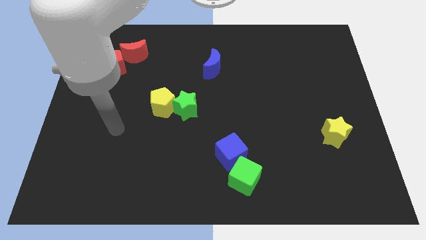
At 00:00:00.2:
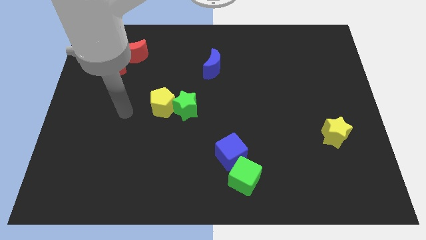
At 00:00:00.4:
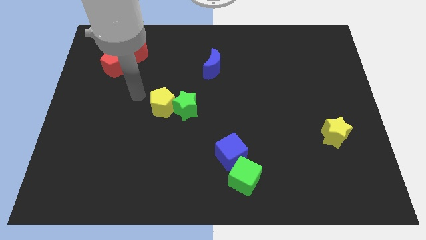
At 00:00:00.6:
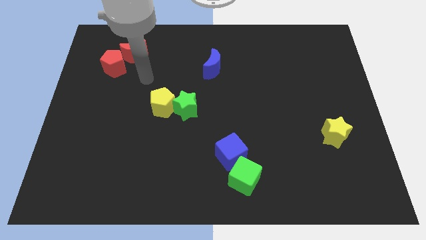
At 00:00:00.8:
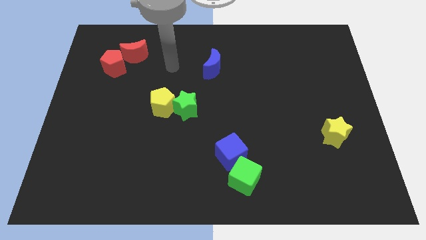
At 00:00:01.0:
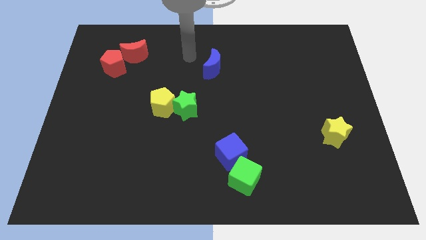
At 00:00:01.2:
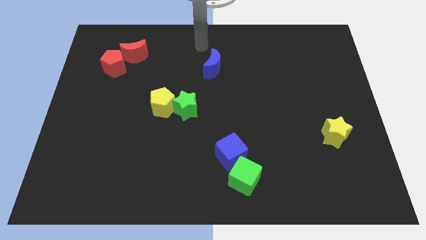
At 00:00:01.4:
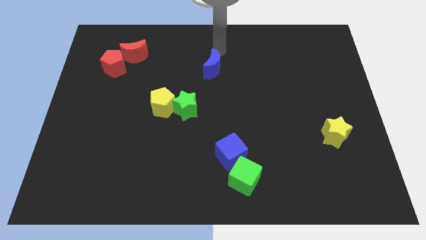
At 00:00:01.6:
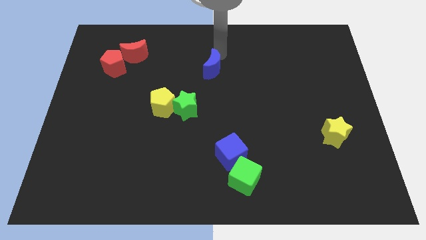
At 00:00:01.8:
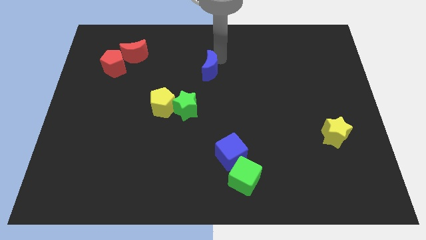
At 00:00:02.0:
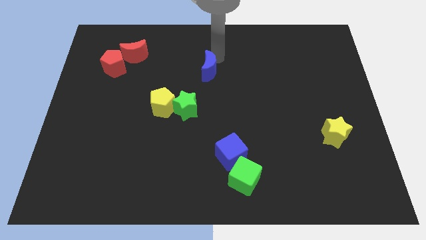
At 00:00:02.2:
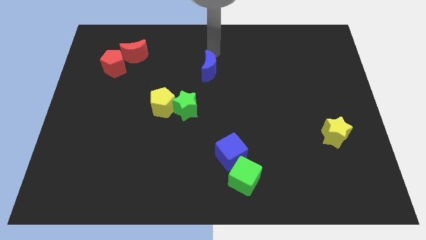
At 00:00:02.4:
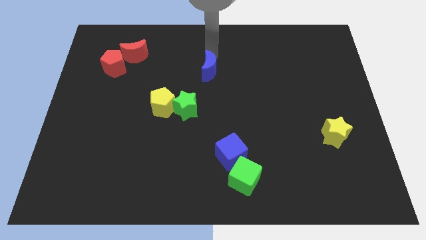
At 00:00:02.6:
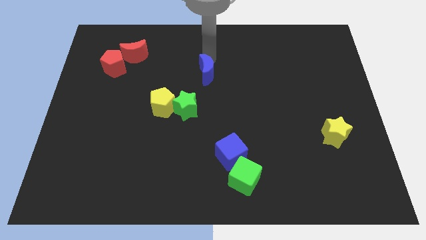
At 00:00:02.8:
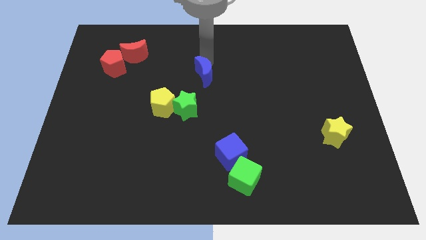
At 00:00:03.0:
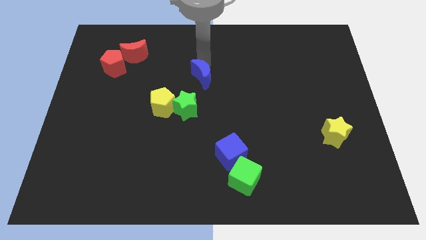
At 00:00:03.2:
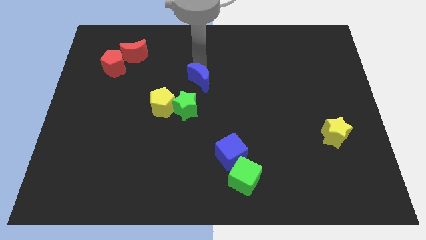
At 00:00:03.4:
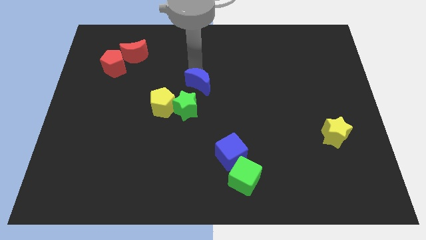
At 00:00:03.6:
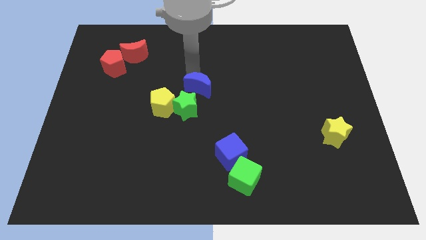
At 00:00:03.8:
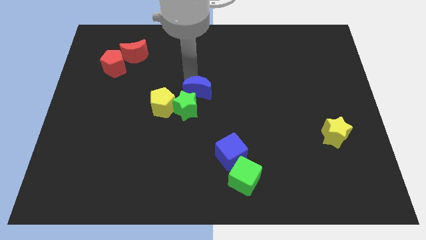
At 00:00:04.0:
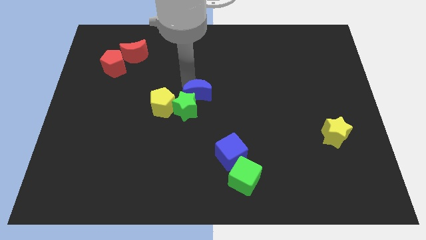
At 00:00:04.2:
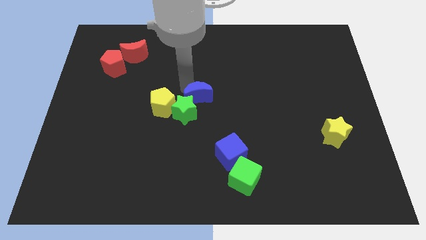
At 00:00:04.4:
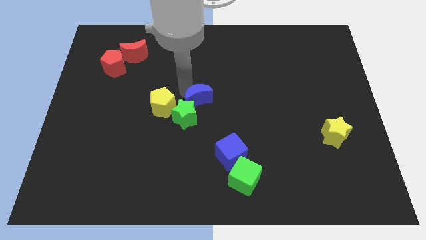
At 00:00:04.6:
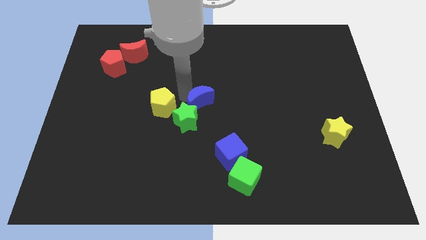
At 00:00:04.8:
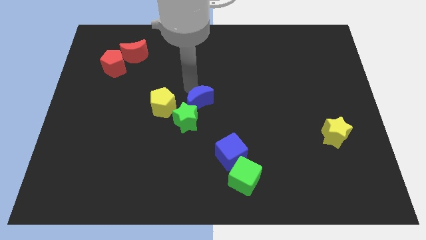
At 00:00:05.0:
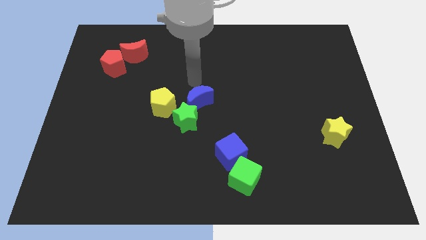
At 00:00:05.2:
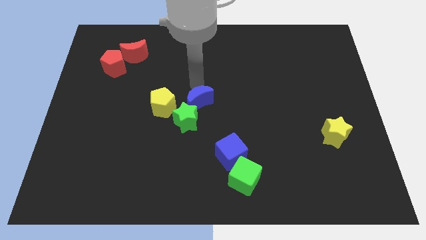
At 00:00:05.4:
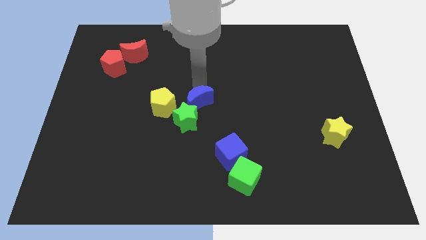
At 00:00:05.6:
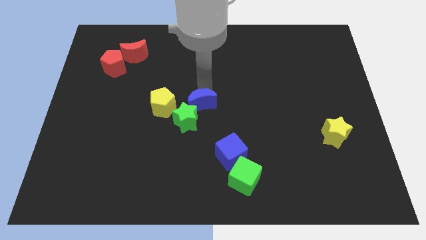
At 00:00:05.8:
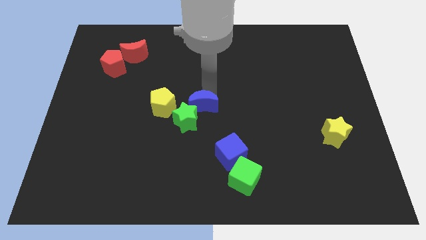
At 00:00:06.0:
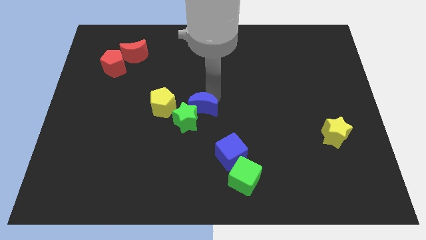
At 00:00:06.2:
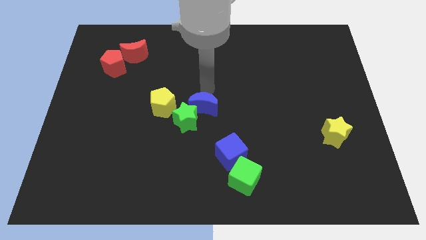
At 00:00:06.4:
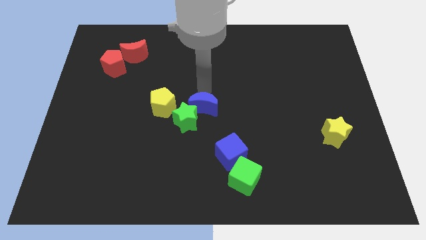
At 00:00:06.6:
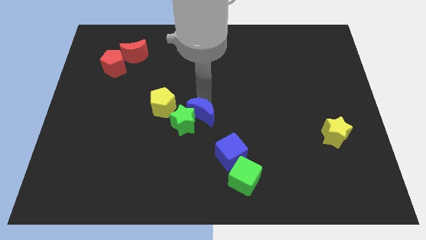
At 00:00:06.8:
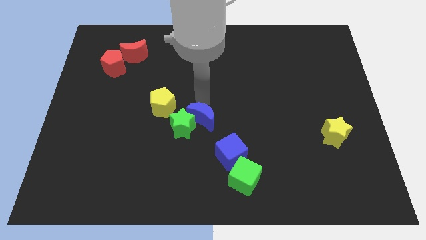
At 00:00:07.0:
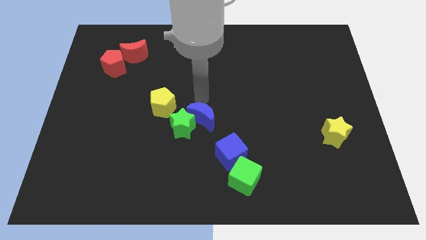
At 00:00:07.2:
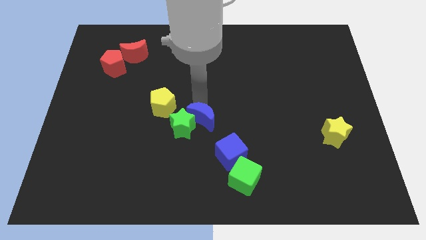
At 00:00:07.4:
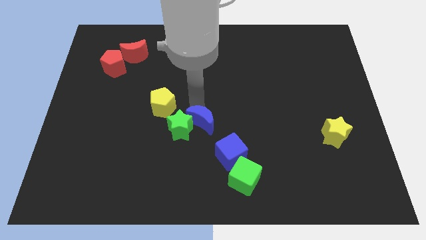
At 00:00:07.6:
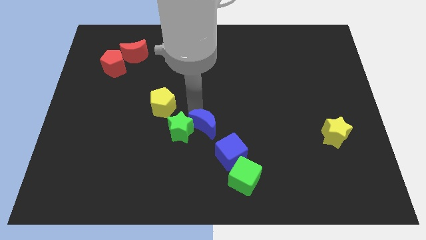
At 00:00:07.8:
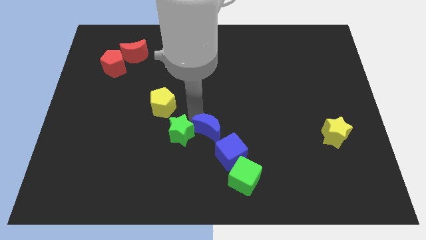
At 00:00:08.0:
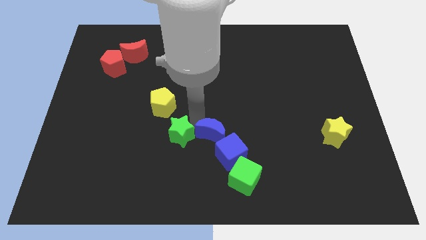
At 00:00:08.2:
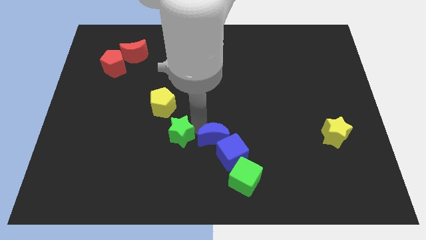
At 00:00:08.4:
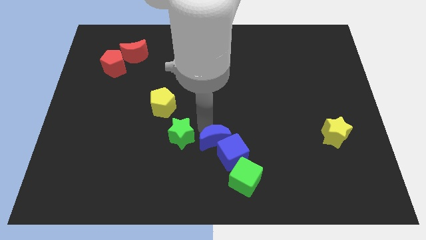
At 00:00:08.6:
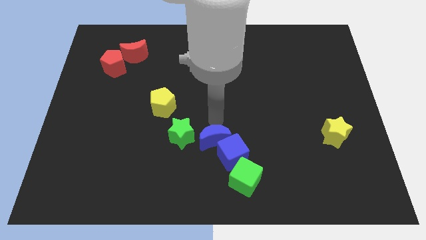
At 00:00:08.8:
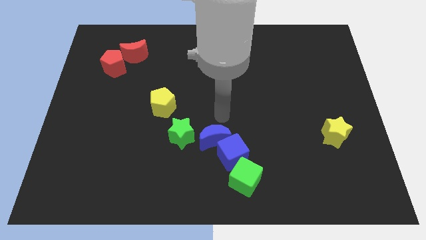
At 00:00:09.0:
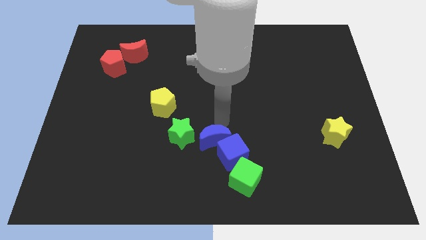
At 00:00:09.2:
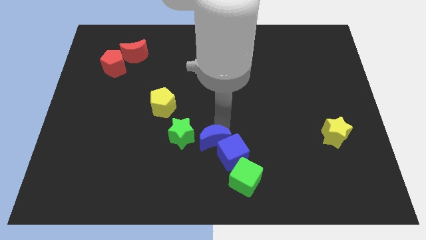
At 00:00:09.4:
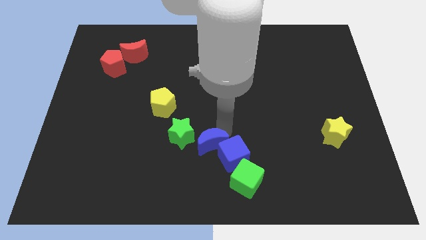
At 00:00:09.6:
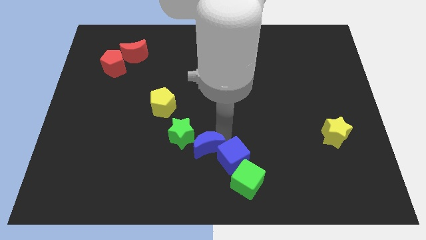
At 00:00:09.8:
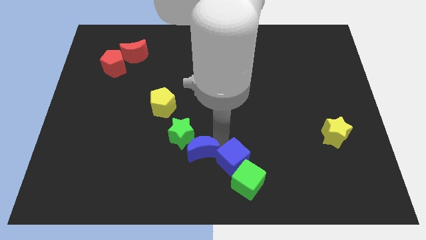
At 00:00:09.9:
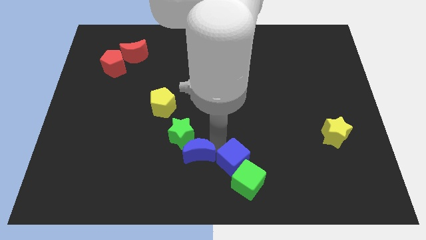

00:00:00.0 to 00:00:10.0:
push the blue moon to the bottom side

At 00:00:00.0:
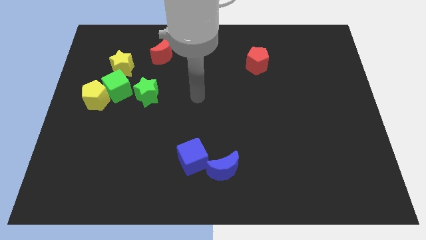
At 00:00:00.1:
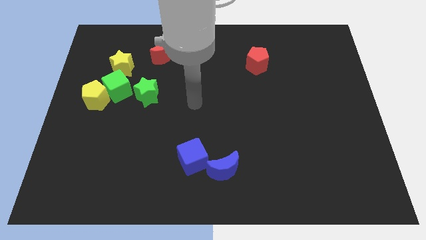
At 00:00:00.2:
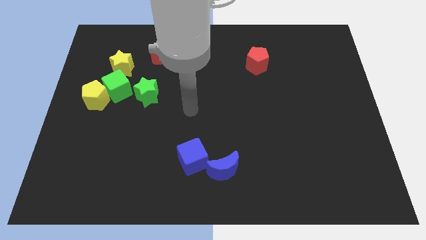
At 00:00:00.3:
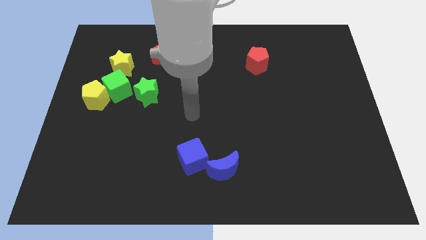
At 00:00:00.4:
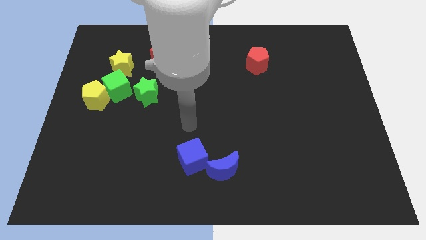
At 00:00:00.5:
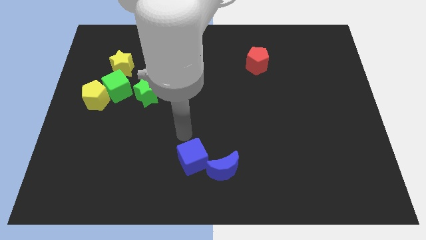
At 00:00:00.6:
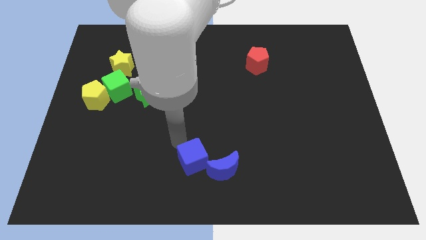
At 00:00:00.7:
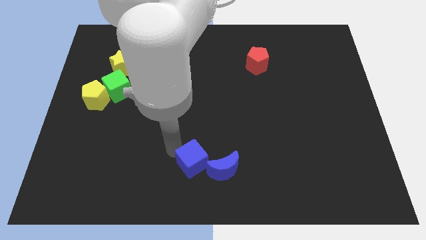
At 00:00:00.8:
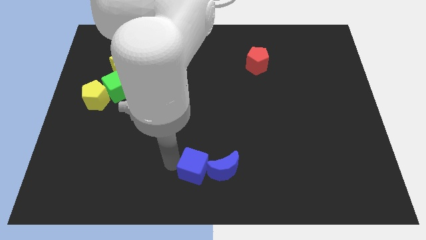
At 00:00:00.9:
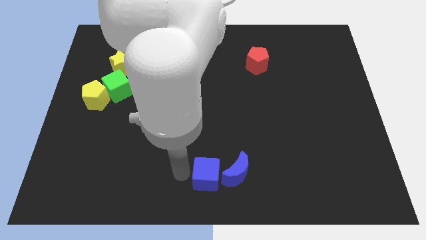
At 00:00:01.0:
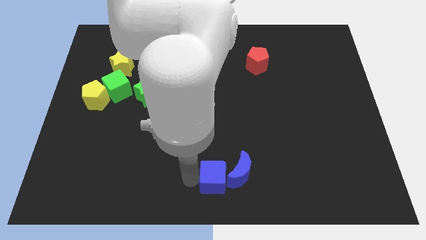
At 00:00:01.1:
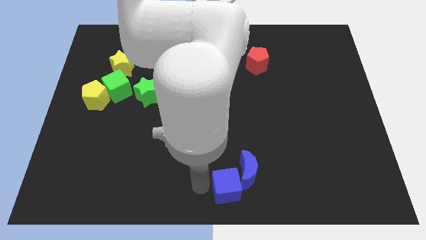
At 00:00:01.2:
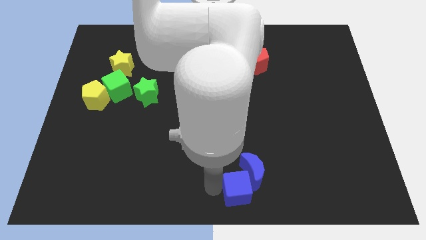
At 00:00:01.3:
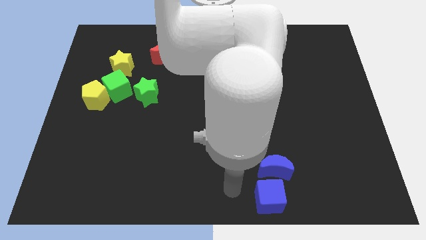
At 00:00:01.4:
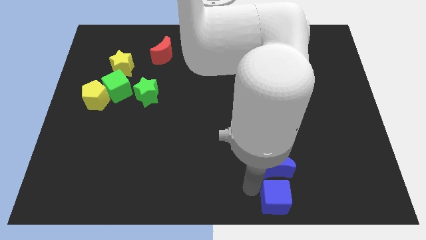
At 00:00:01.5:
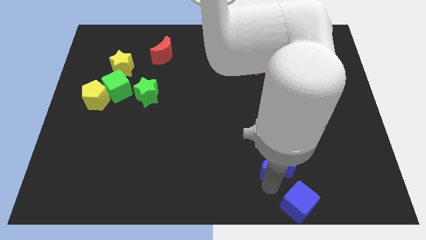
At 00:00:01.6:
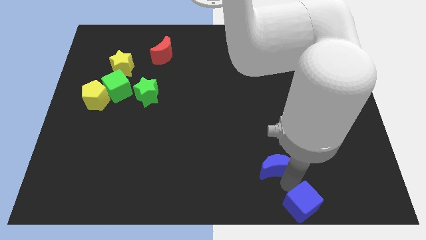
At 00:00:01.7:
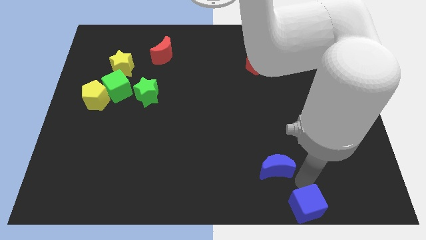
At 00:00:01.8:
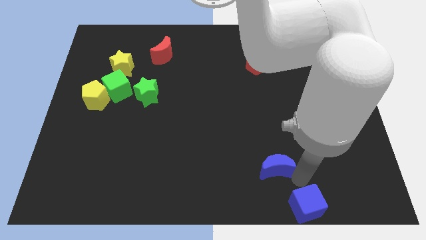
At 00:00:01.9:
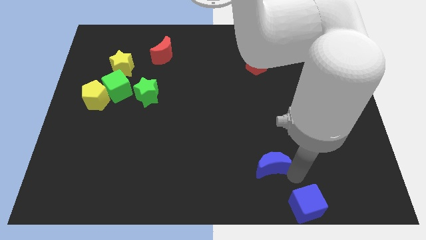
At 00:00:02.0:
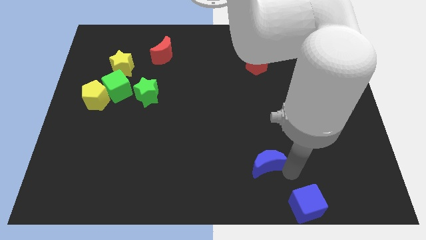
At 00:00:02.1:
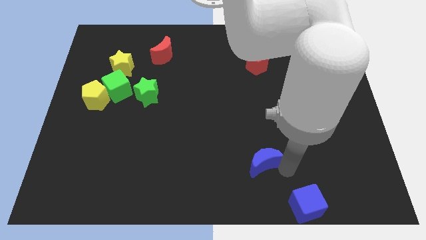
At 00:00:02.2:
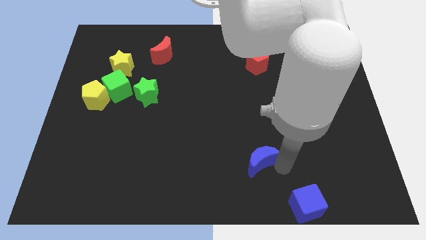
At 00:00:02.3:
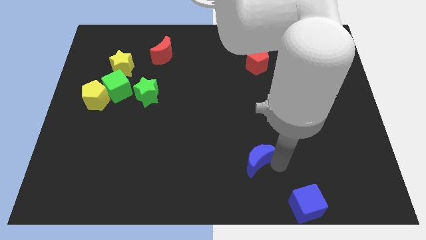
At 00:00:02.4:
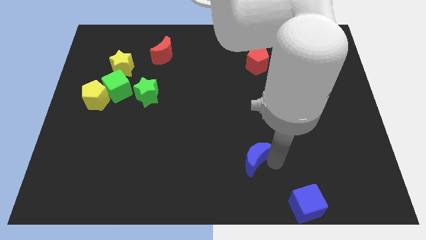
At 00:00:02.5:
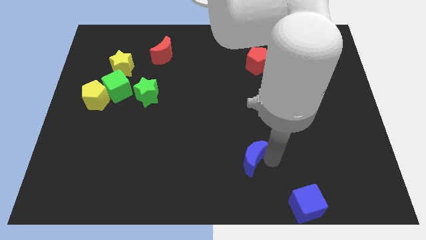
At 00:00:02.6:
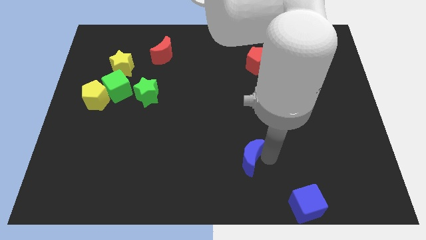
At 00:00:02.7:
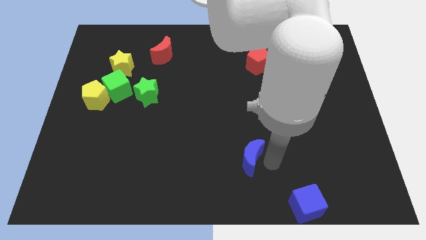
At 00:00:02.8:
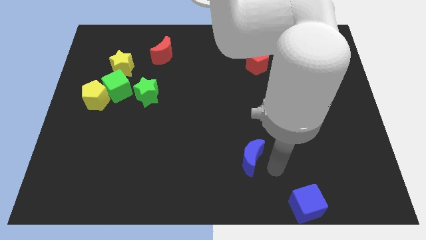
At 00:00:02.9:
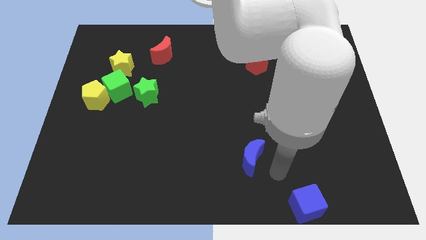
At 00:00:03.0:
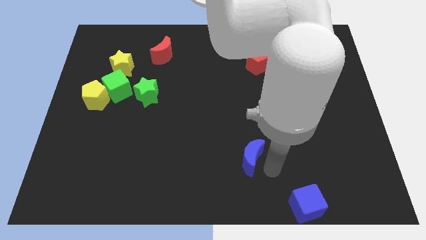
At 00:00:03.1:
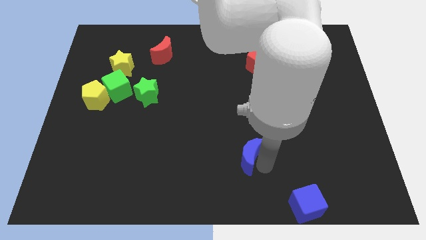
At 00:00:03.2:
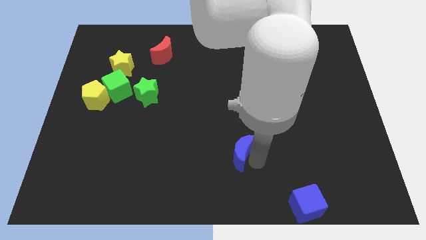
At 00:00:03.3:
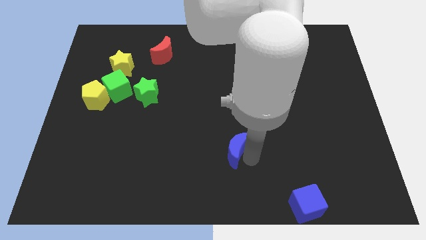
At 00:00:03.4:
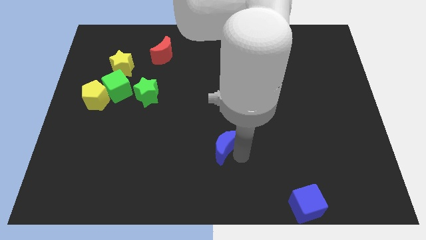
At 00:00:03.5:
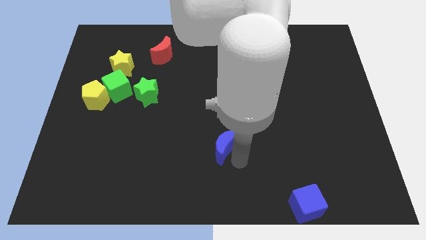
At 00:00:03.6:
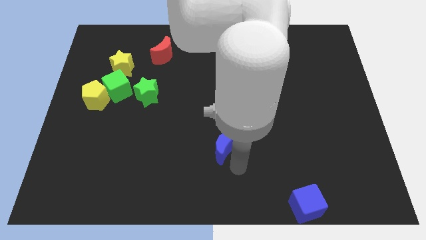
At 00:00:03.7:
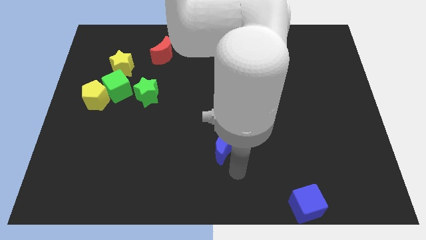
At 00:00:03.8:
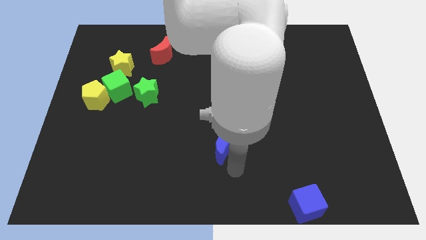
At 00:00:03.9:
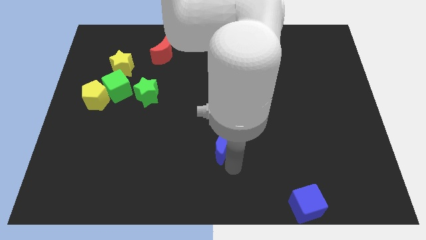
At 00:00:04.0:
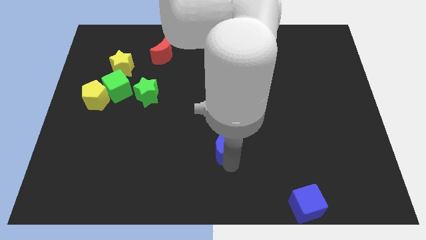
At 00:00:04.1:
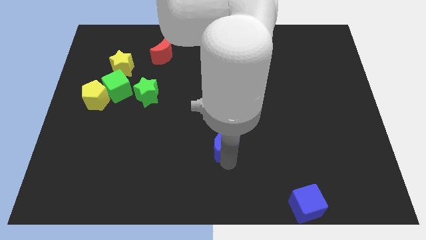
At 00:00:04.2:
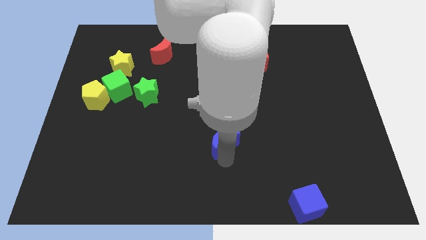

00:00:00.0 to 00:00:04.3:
put the blue moon to the middle of the board
